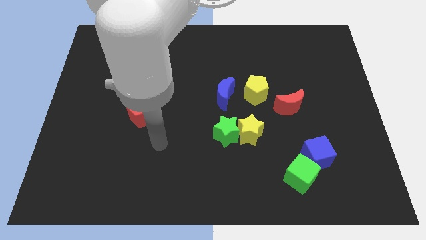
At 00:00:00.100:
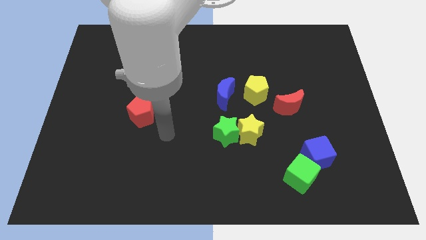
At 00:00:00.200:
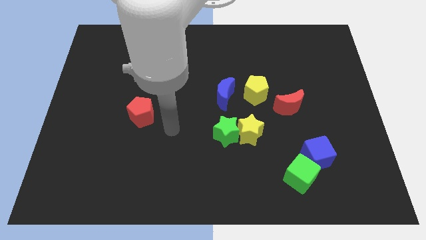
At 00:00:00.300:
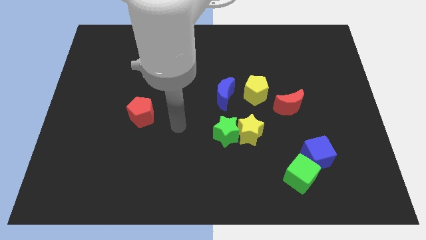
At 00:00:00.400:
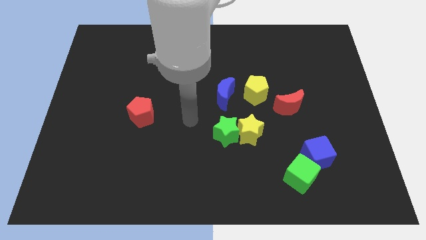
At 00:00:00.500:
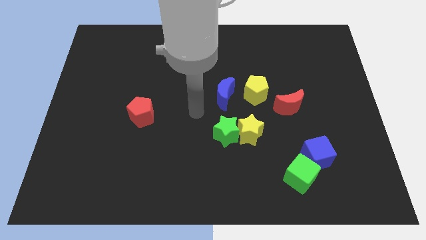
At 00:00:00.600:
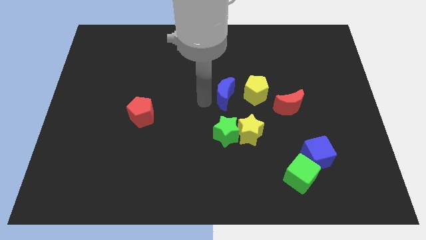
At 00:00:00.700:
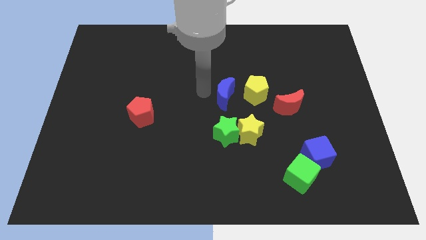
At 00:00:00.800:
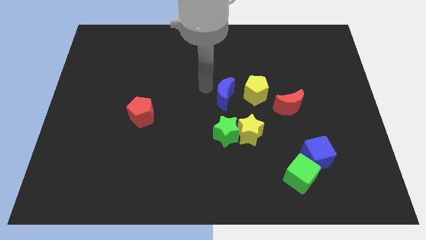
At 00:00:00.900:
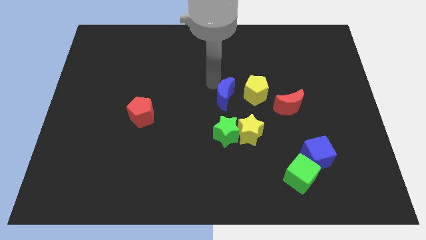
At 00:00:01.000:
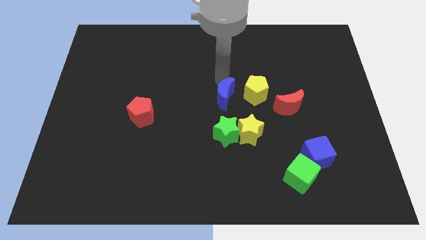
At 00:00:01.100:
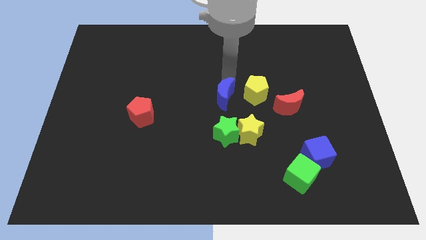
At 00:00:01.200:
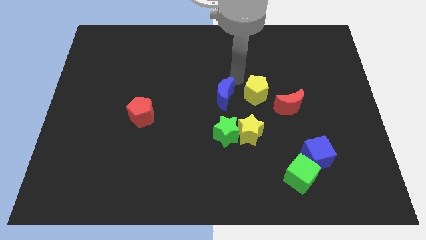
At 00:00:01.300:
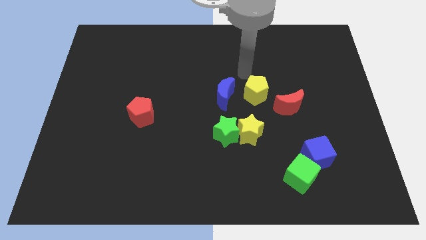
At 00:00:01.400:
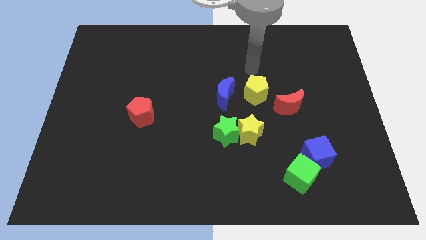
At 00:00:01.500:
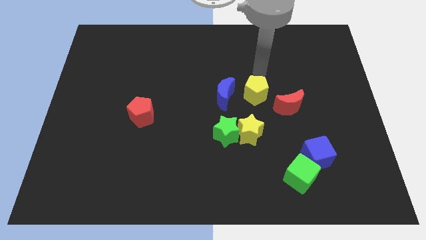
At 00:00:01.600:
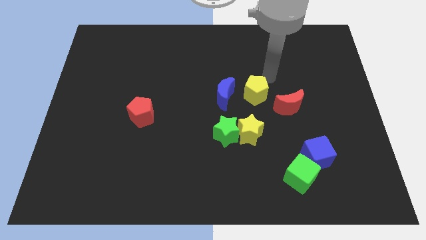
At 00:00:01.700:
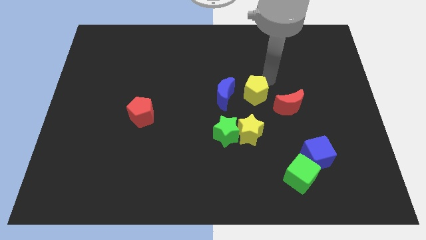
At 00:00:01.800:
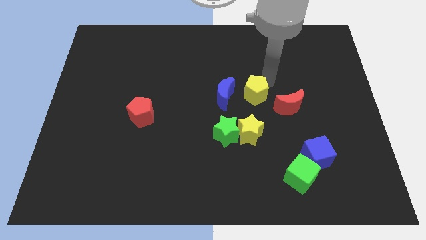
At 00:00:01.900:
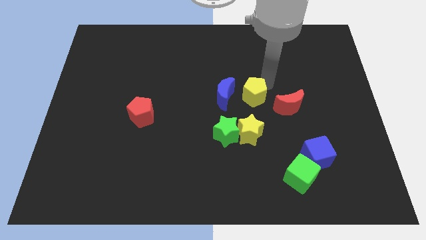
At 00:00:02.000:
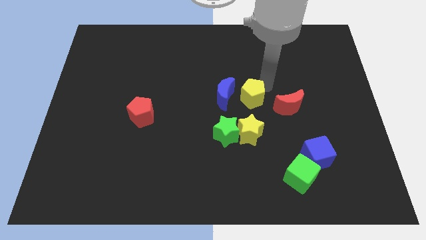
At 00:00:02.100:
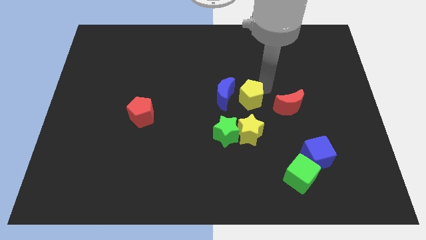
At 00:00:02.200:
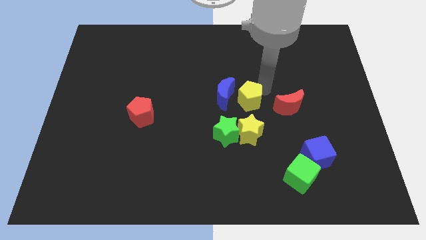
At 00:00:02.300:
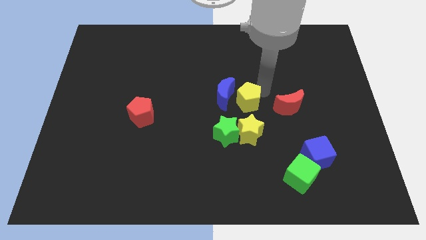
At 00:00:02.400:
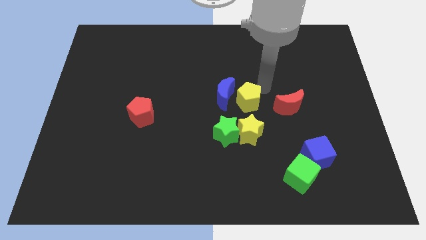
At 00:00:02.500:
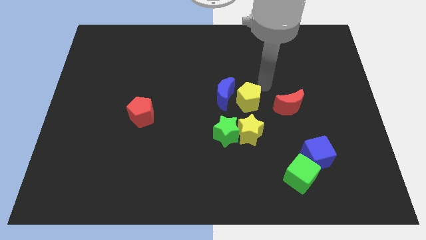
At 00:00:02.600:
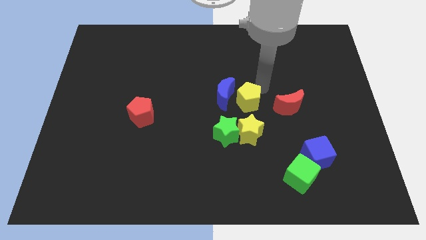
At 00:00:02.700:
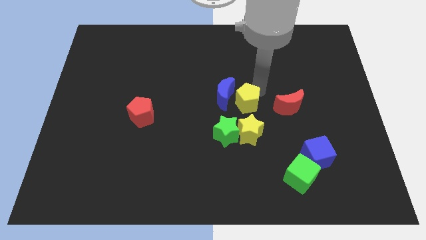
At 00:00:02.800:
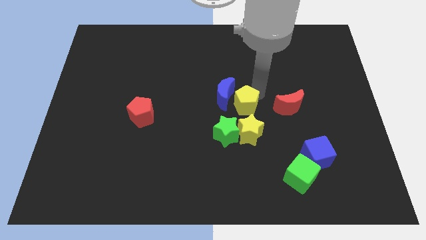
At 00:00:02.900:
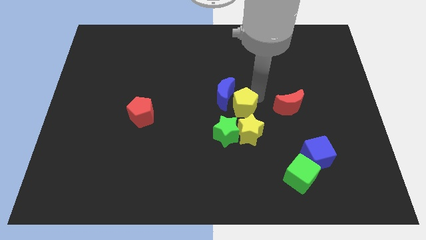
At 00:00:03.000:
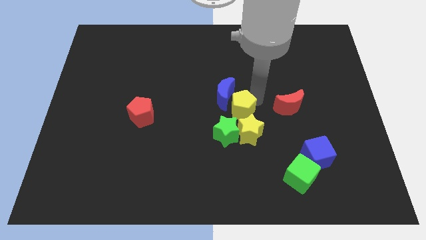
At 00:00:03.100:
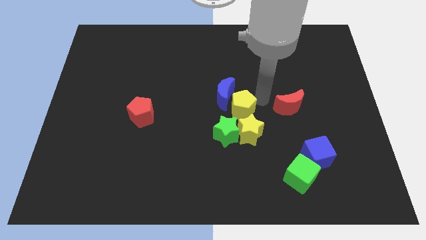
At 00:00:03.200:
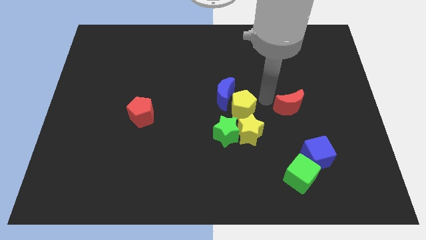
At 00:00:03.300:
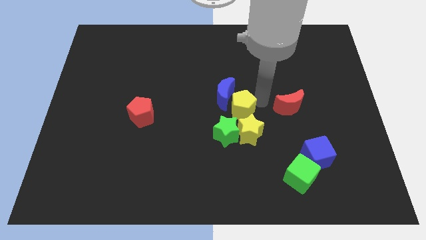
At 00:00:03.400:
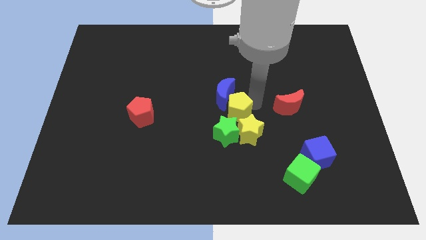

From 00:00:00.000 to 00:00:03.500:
slightly move the yellow pentagon downwards and then left

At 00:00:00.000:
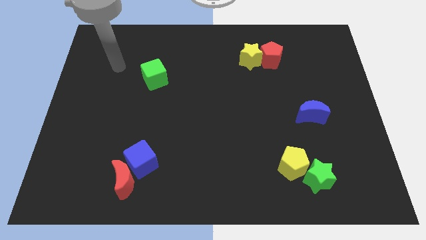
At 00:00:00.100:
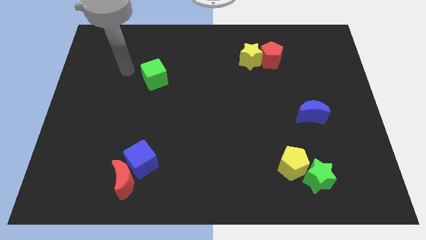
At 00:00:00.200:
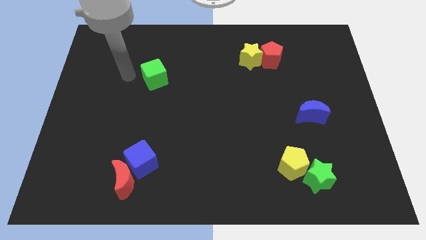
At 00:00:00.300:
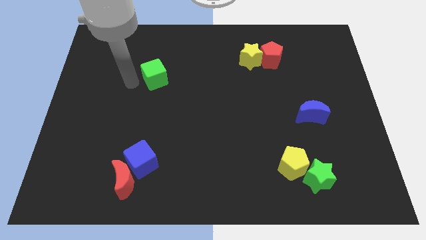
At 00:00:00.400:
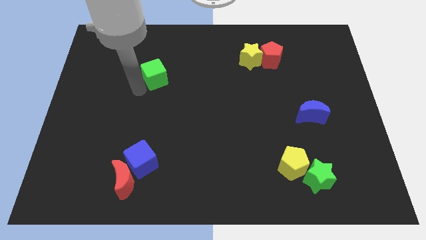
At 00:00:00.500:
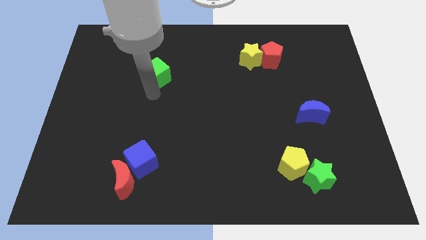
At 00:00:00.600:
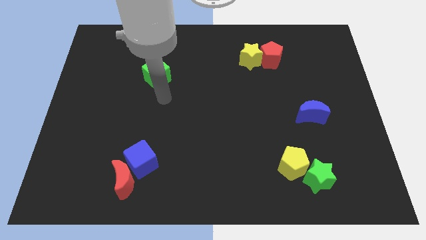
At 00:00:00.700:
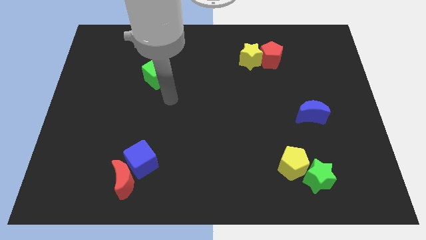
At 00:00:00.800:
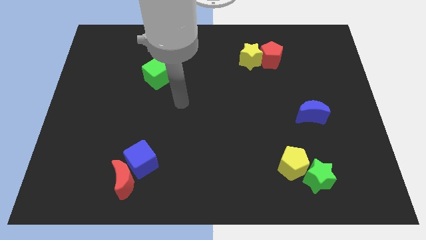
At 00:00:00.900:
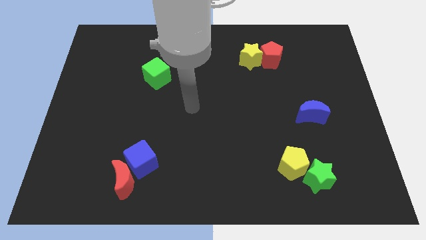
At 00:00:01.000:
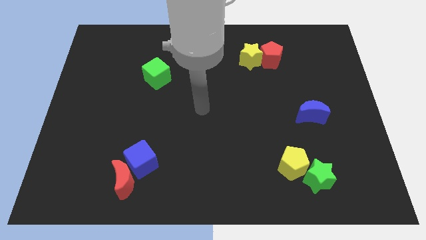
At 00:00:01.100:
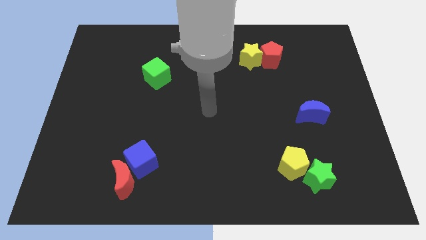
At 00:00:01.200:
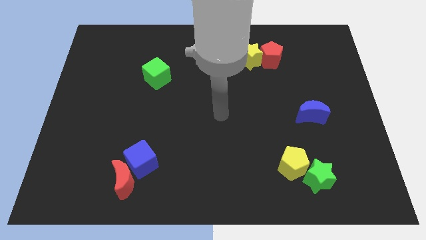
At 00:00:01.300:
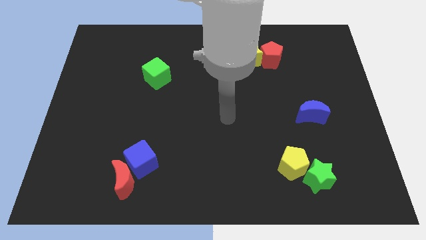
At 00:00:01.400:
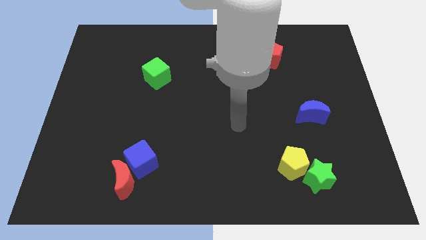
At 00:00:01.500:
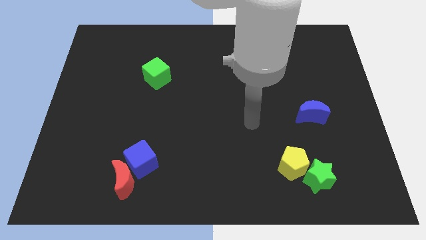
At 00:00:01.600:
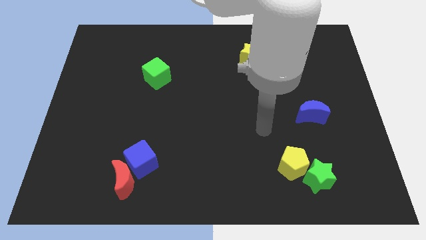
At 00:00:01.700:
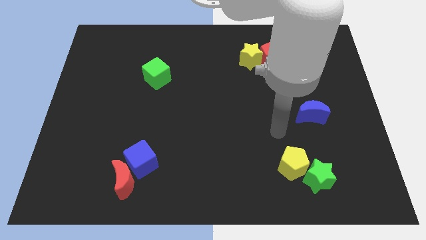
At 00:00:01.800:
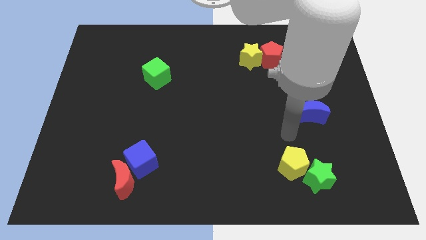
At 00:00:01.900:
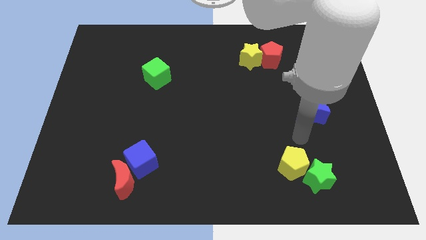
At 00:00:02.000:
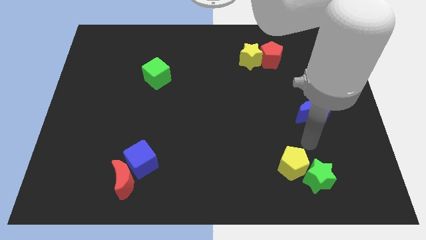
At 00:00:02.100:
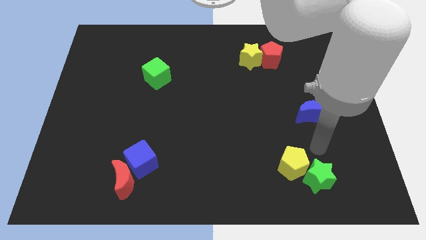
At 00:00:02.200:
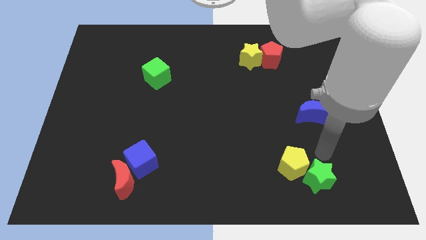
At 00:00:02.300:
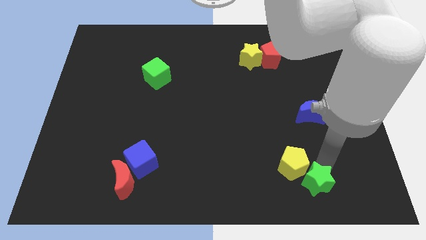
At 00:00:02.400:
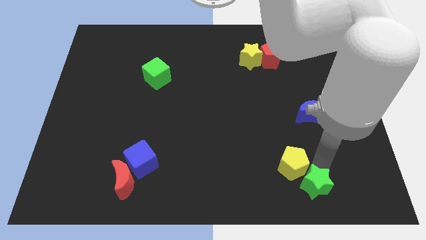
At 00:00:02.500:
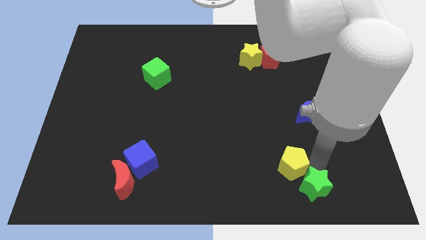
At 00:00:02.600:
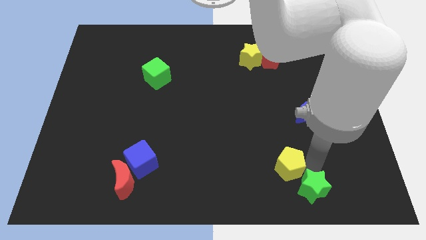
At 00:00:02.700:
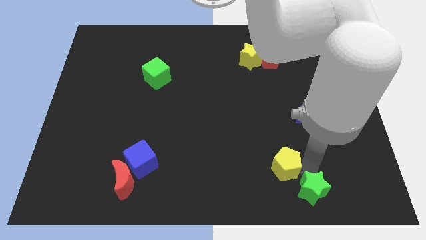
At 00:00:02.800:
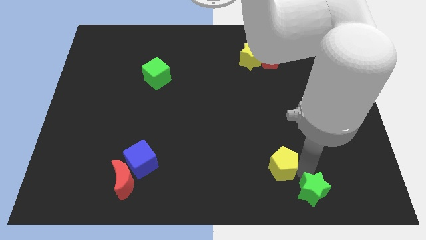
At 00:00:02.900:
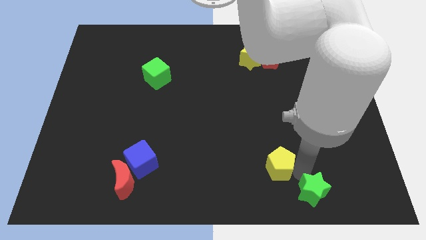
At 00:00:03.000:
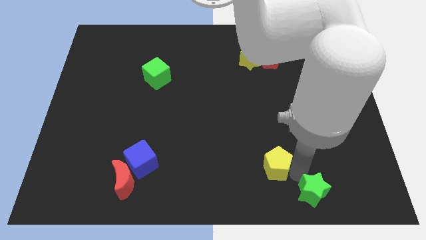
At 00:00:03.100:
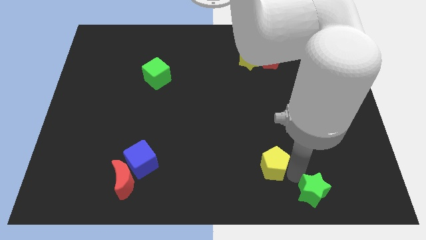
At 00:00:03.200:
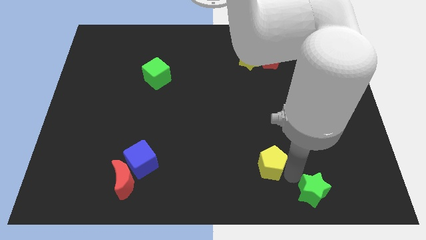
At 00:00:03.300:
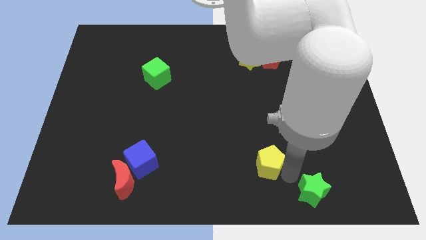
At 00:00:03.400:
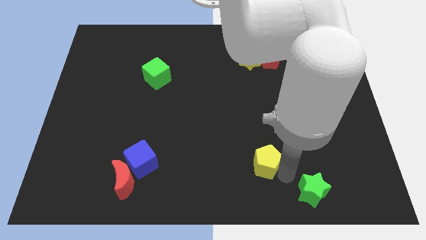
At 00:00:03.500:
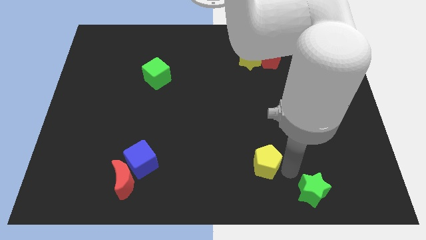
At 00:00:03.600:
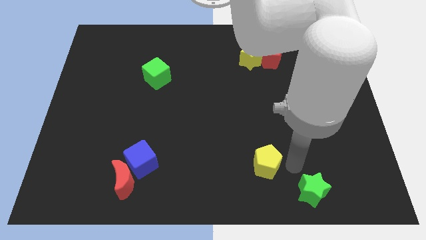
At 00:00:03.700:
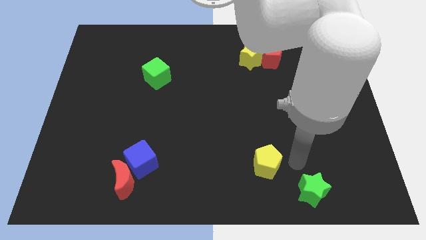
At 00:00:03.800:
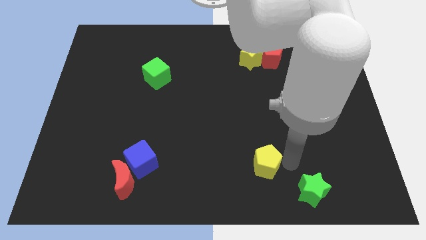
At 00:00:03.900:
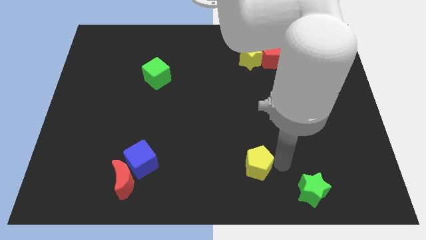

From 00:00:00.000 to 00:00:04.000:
slide the yellow pentagon to the left a little
